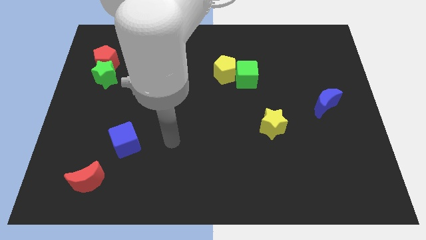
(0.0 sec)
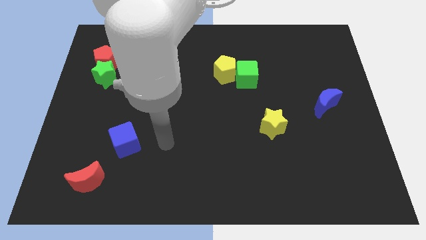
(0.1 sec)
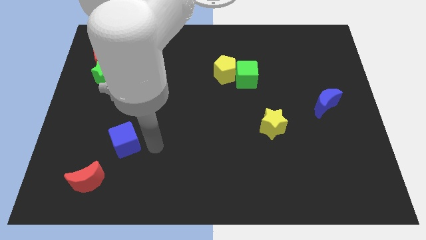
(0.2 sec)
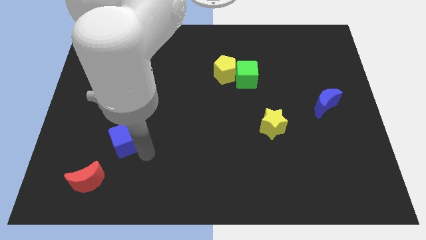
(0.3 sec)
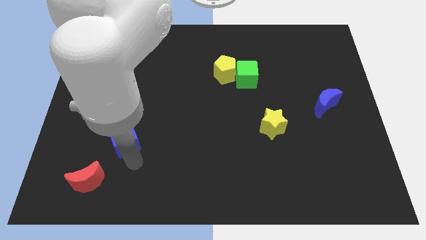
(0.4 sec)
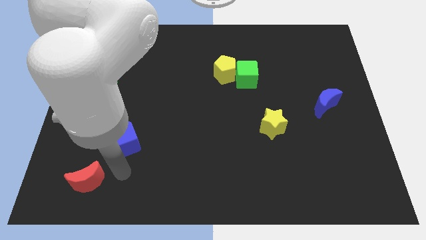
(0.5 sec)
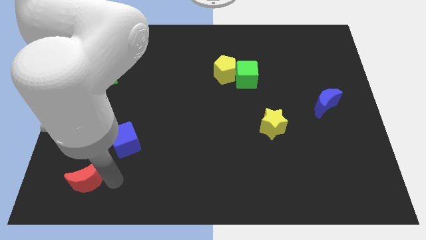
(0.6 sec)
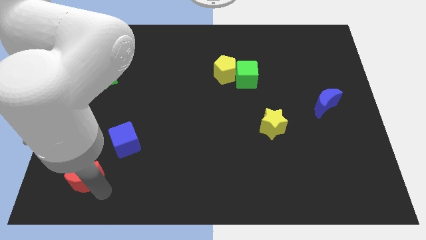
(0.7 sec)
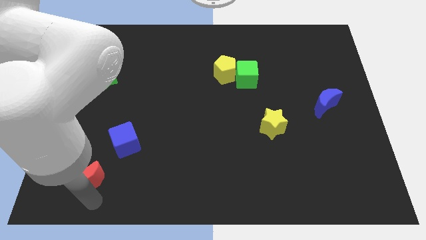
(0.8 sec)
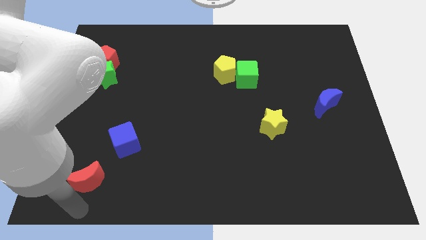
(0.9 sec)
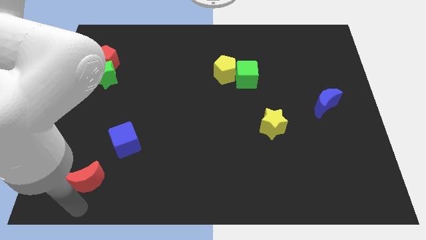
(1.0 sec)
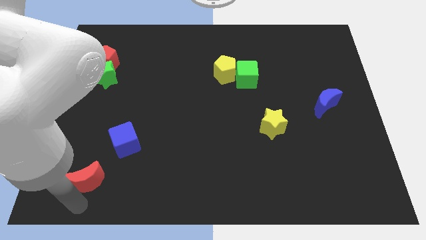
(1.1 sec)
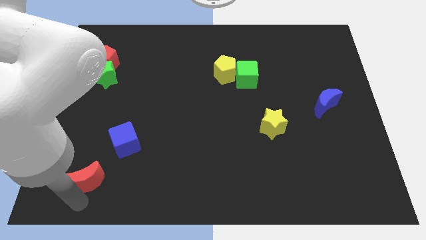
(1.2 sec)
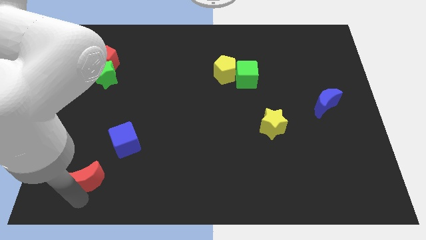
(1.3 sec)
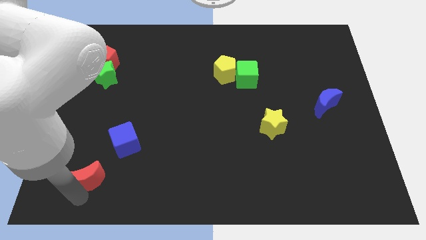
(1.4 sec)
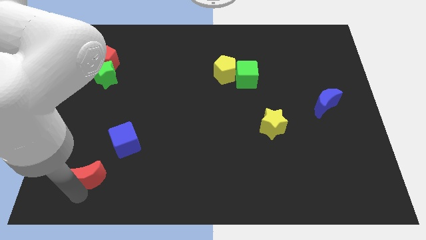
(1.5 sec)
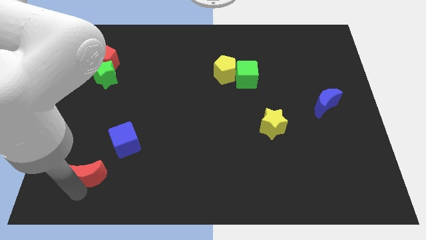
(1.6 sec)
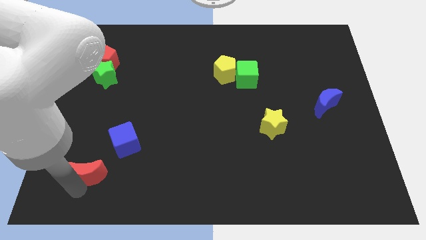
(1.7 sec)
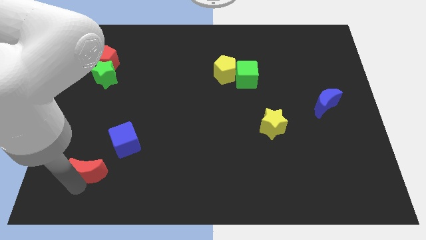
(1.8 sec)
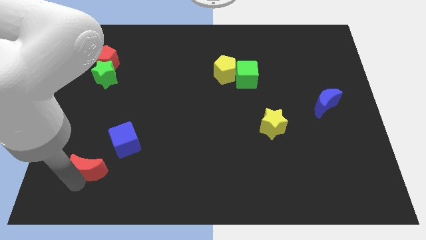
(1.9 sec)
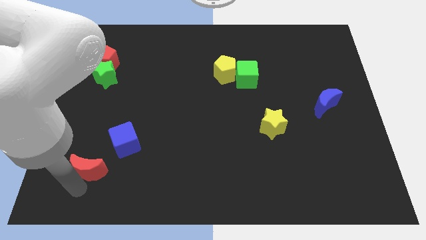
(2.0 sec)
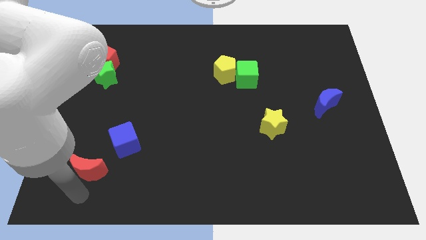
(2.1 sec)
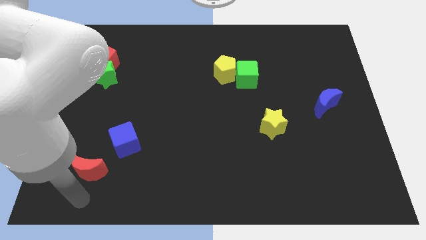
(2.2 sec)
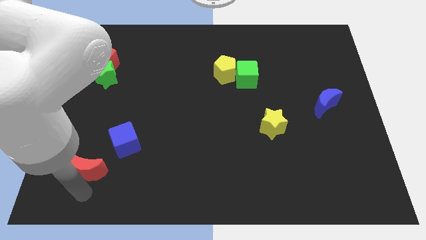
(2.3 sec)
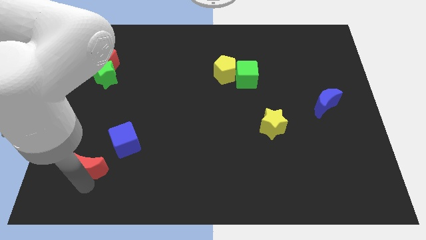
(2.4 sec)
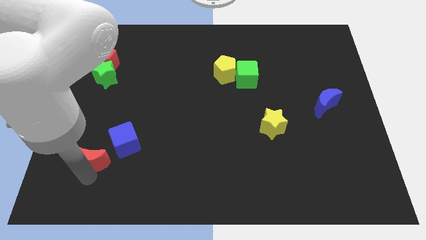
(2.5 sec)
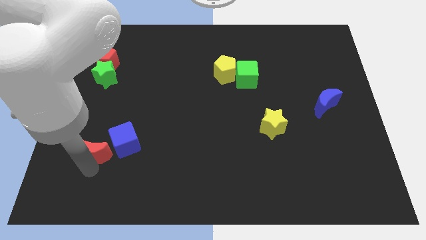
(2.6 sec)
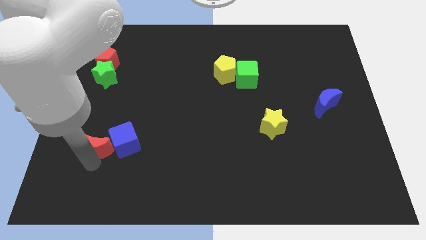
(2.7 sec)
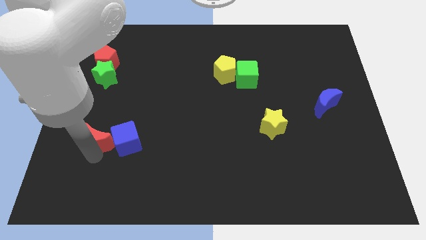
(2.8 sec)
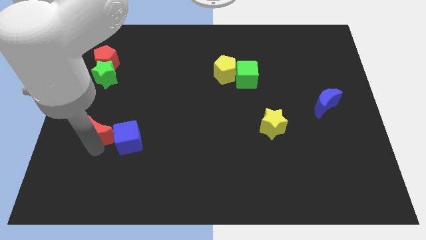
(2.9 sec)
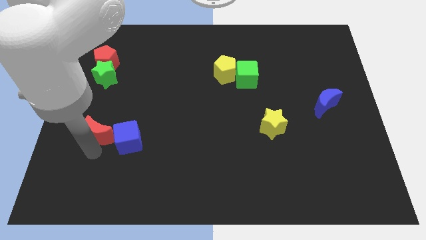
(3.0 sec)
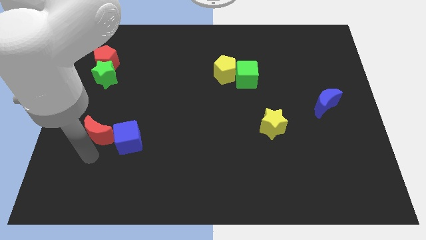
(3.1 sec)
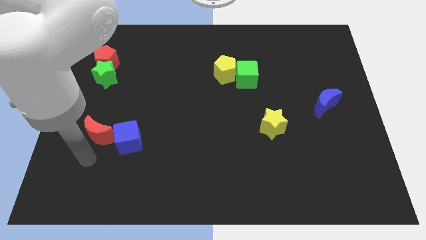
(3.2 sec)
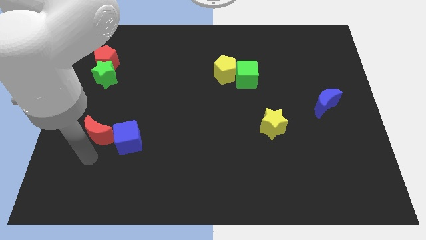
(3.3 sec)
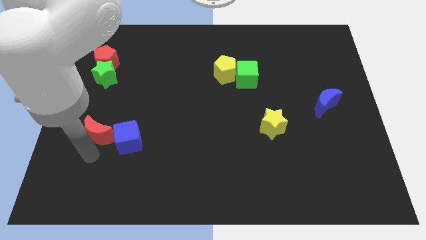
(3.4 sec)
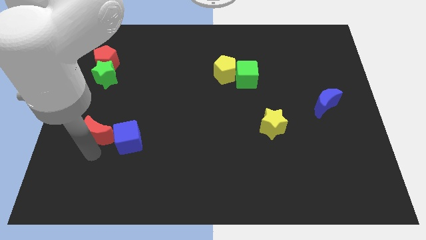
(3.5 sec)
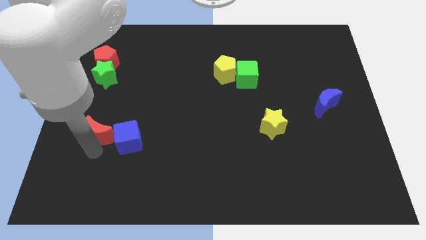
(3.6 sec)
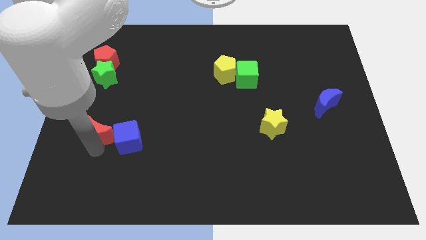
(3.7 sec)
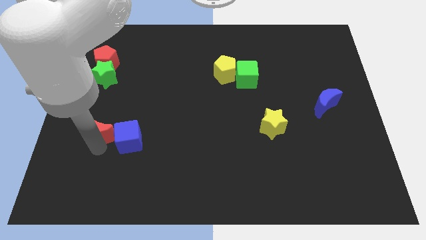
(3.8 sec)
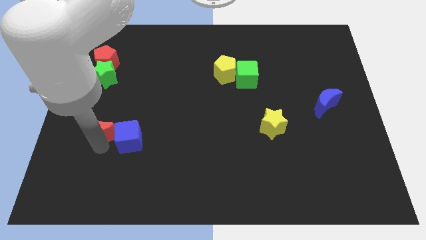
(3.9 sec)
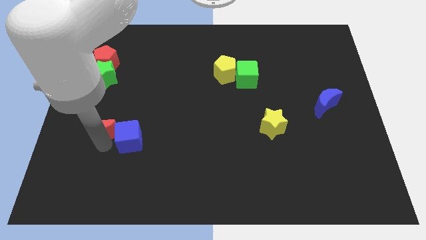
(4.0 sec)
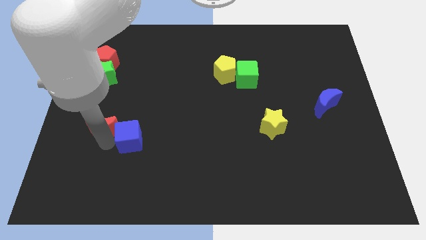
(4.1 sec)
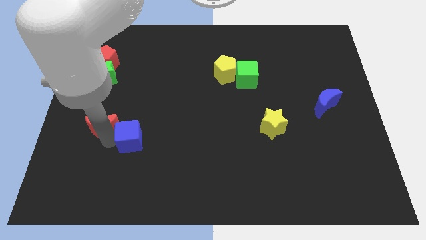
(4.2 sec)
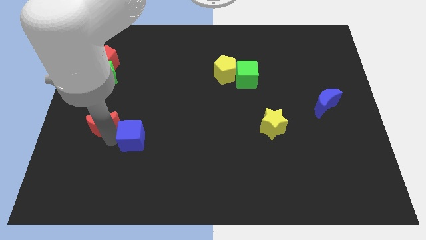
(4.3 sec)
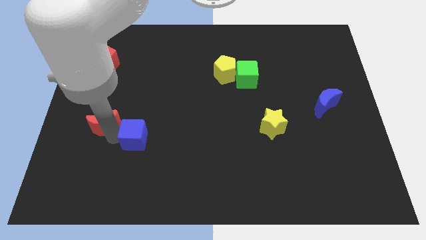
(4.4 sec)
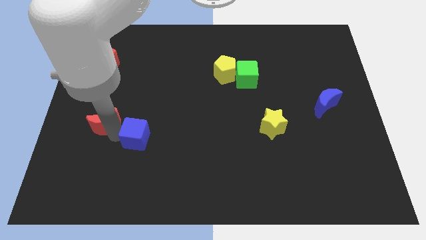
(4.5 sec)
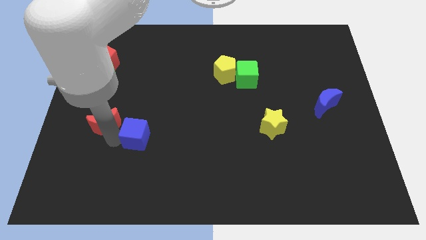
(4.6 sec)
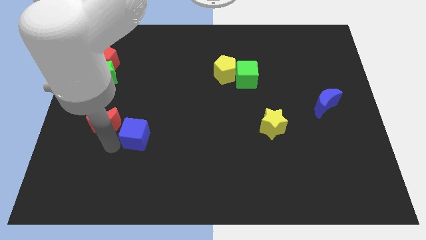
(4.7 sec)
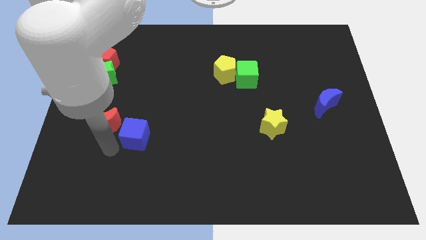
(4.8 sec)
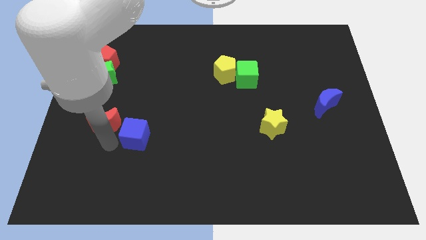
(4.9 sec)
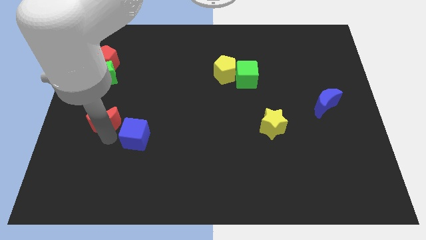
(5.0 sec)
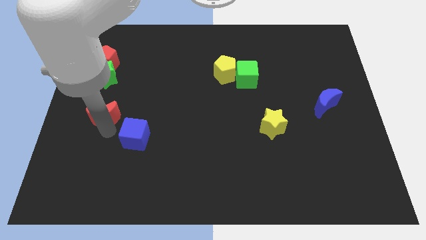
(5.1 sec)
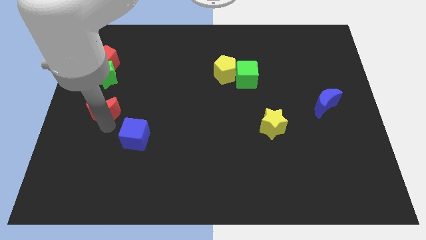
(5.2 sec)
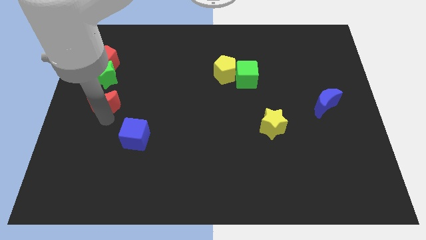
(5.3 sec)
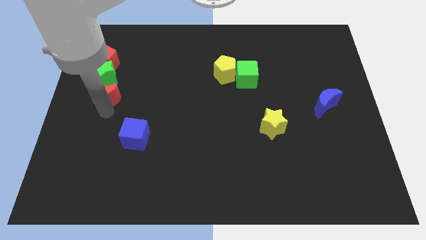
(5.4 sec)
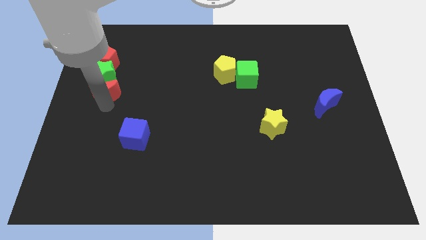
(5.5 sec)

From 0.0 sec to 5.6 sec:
slide the red moon next to the green star

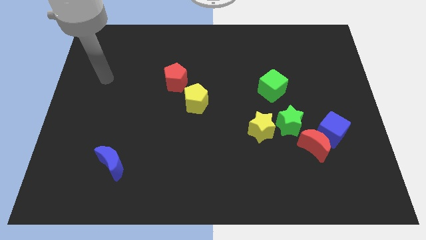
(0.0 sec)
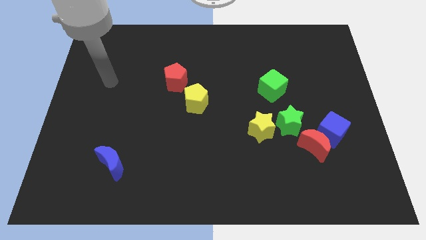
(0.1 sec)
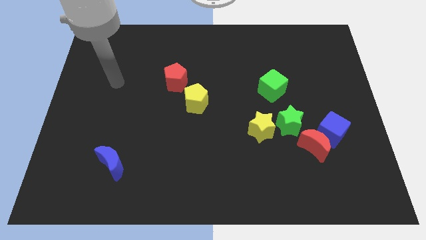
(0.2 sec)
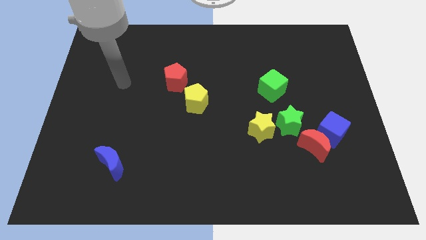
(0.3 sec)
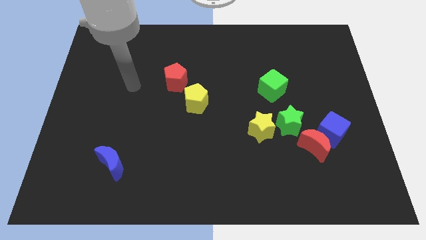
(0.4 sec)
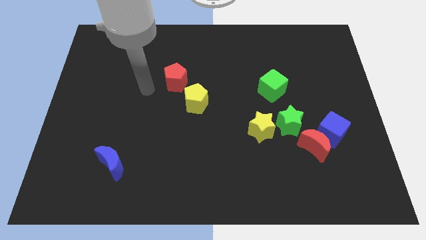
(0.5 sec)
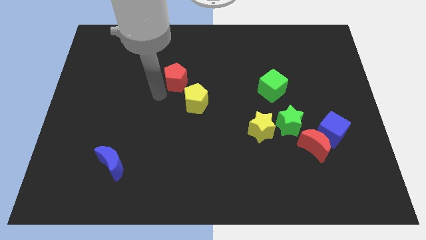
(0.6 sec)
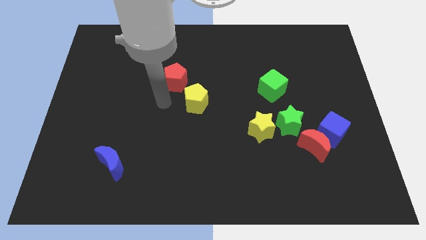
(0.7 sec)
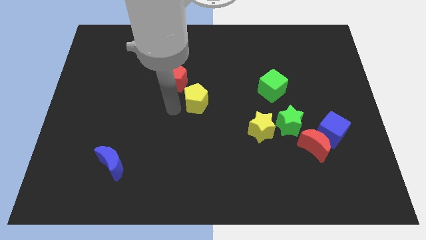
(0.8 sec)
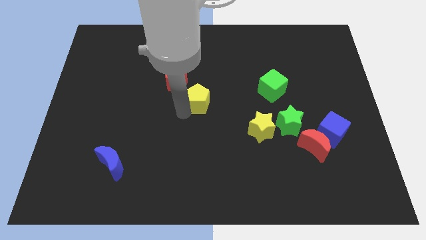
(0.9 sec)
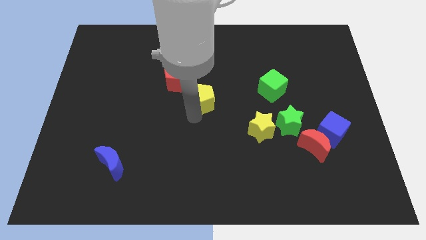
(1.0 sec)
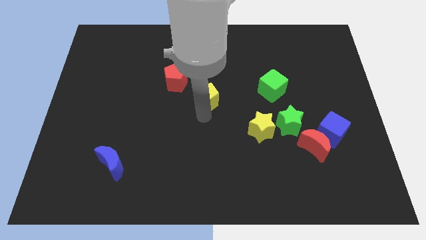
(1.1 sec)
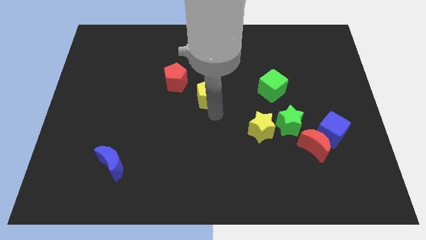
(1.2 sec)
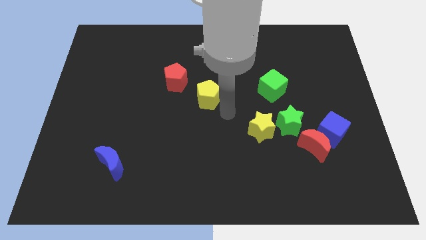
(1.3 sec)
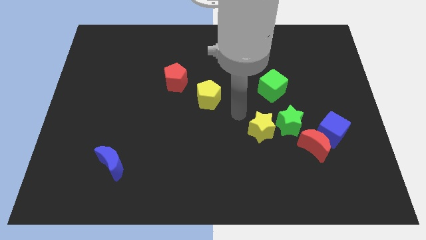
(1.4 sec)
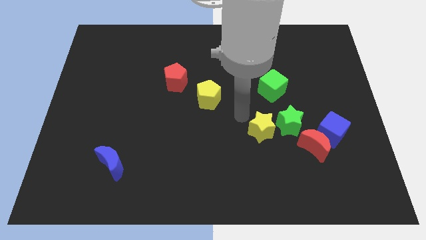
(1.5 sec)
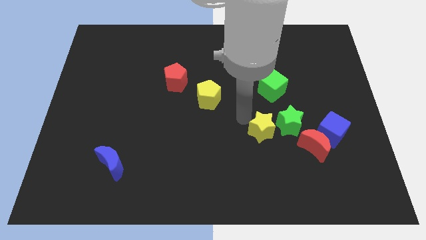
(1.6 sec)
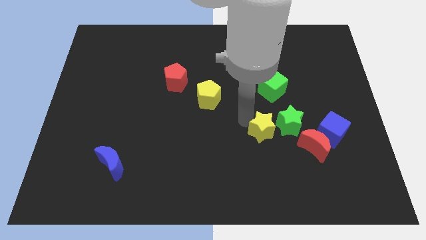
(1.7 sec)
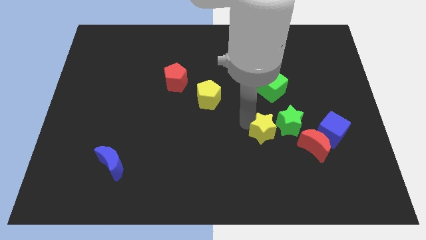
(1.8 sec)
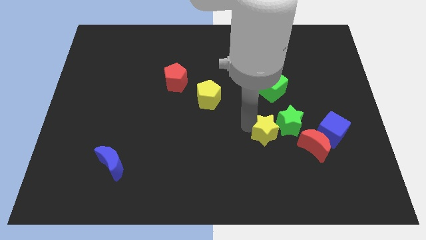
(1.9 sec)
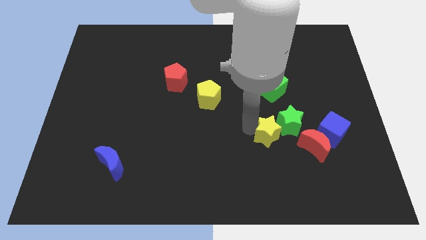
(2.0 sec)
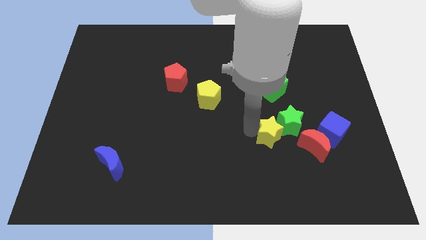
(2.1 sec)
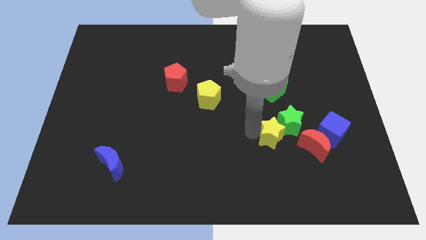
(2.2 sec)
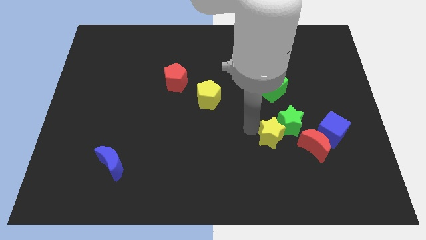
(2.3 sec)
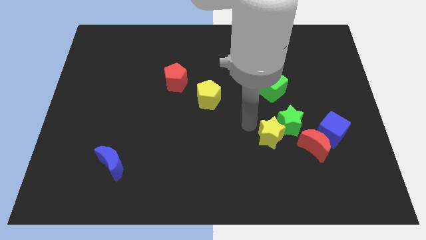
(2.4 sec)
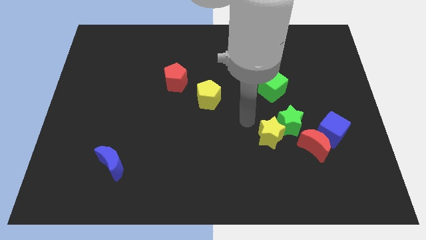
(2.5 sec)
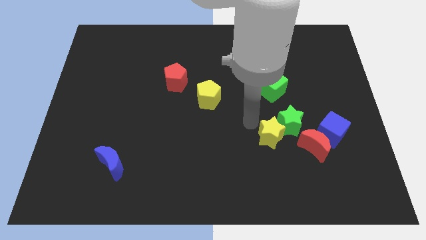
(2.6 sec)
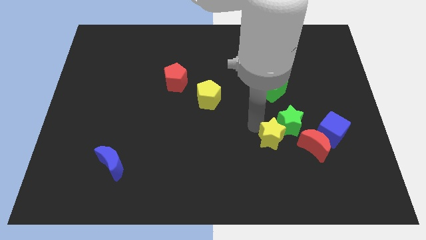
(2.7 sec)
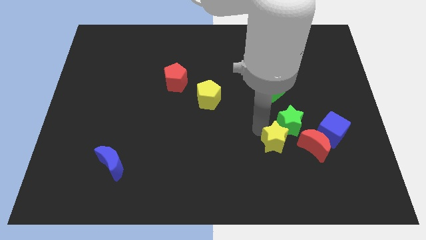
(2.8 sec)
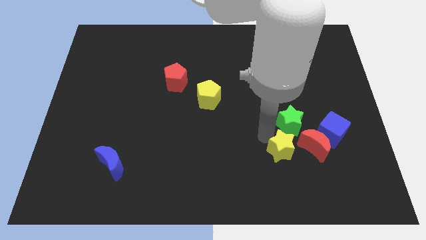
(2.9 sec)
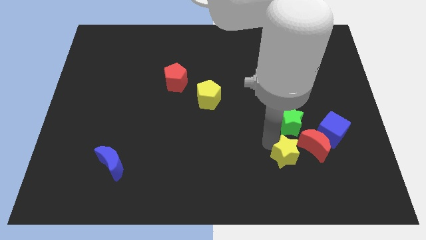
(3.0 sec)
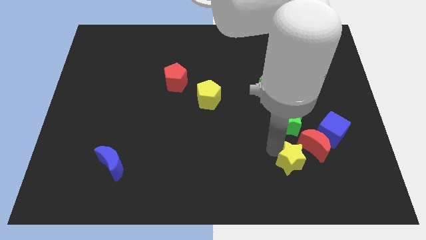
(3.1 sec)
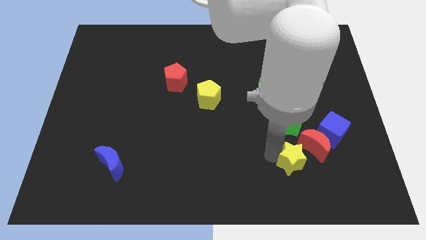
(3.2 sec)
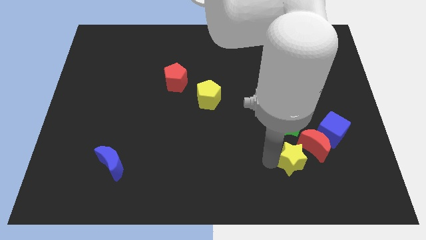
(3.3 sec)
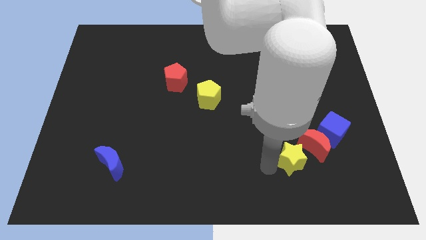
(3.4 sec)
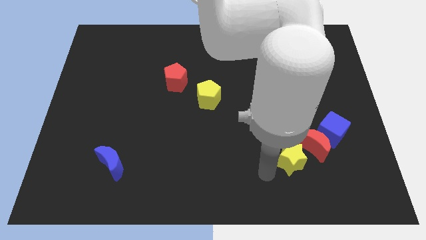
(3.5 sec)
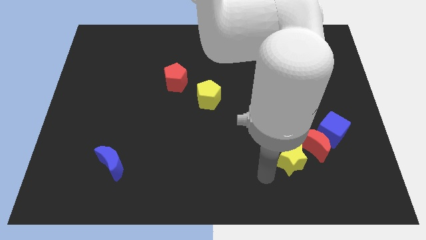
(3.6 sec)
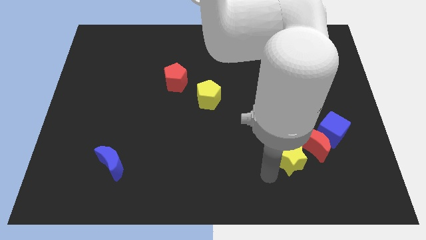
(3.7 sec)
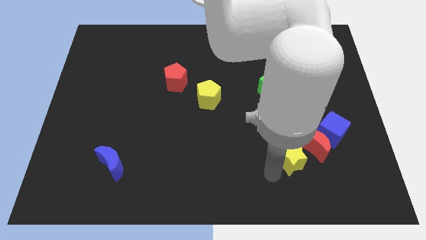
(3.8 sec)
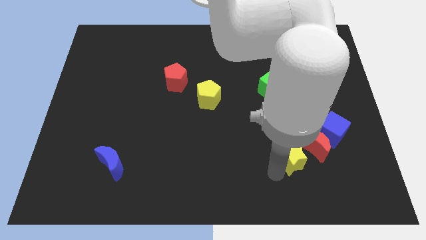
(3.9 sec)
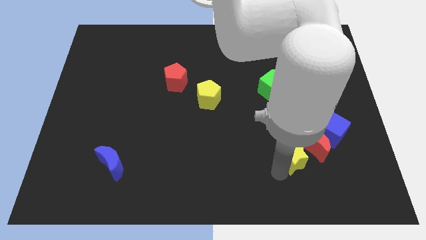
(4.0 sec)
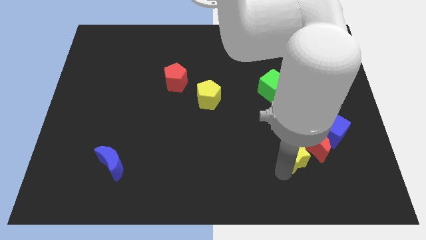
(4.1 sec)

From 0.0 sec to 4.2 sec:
slide the yellow star close to the red moon
